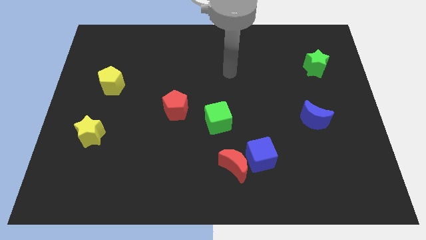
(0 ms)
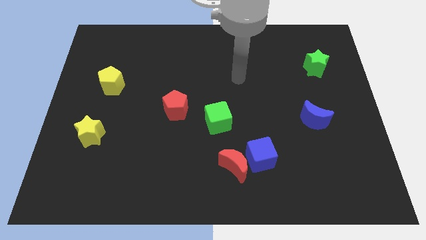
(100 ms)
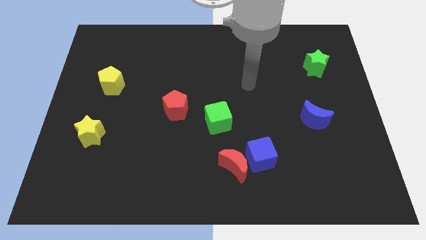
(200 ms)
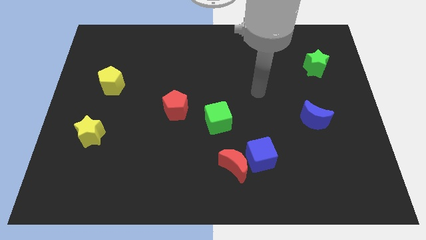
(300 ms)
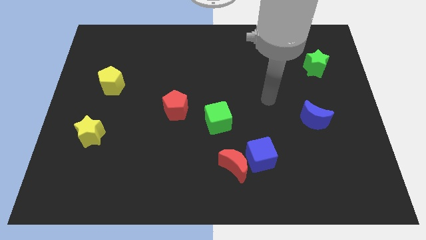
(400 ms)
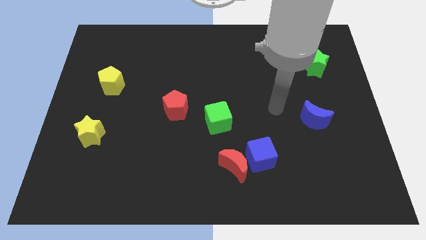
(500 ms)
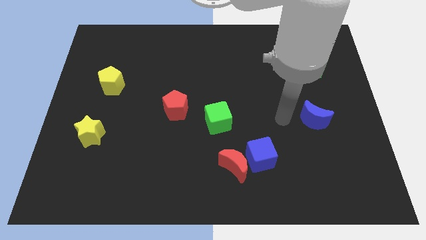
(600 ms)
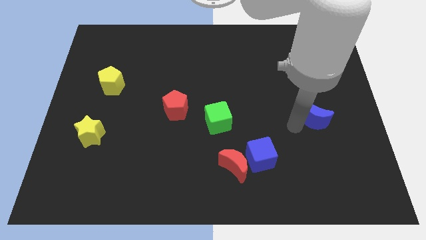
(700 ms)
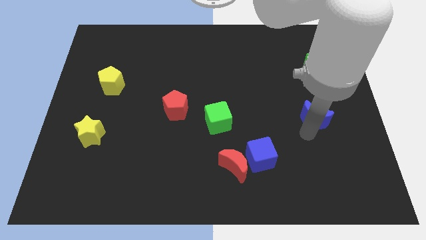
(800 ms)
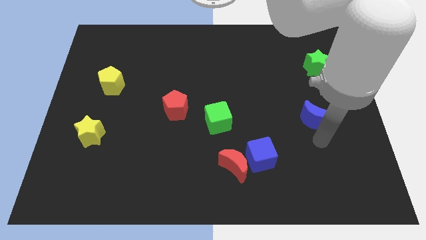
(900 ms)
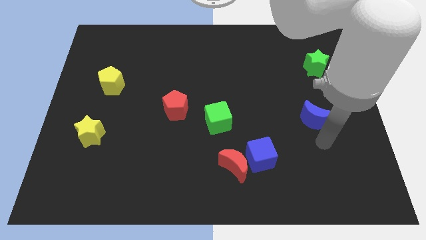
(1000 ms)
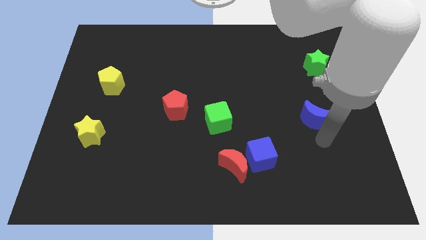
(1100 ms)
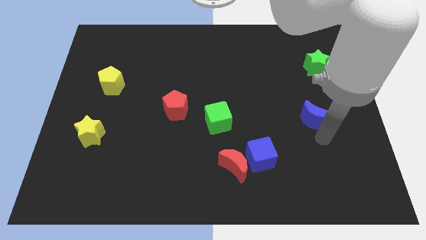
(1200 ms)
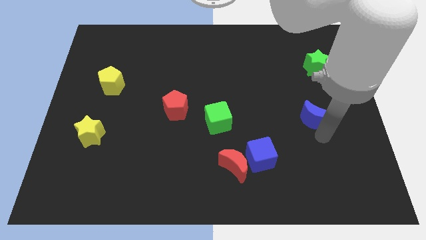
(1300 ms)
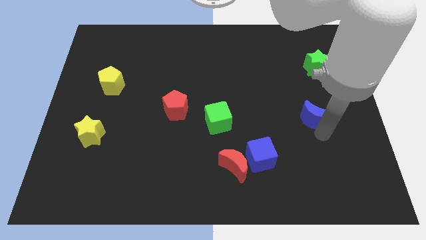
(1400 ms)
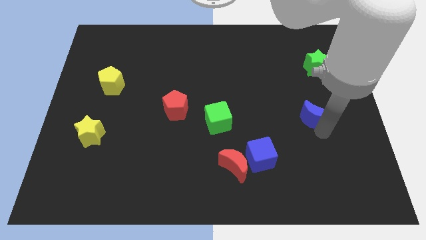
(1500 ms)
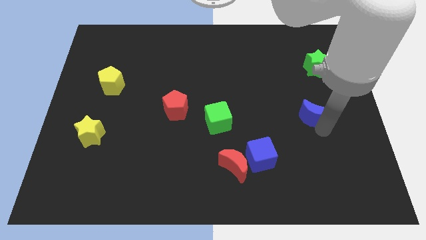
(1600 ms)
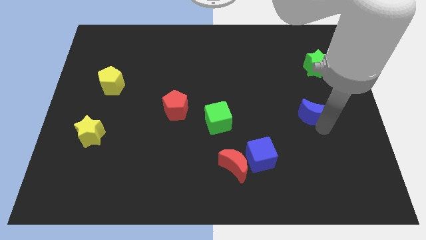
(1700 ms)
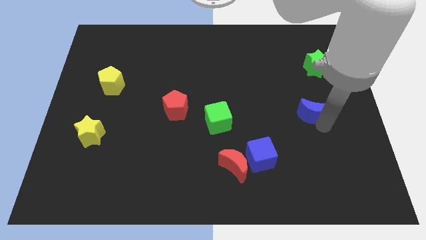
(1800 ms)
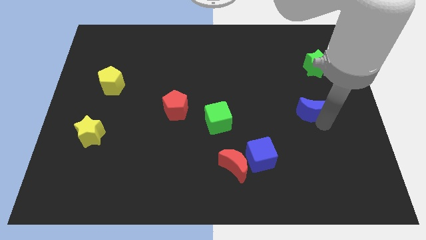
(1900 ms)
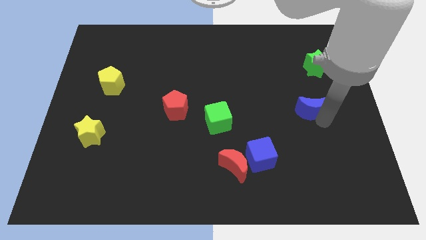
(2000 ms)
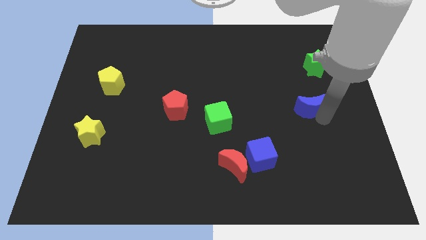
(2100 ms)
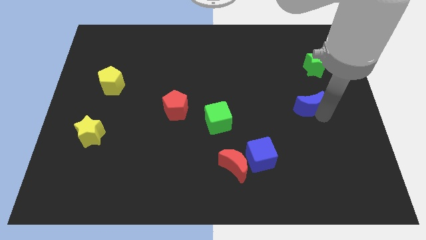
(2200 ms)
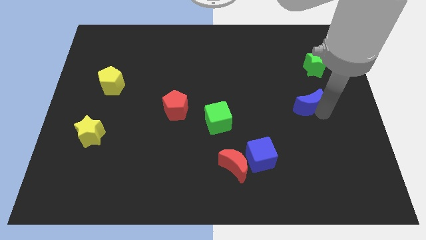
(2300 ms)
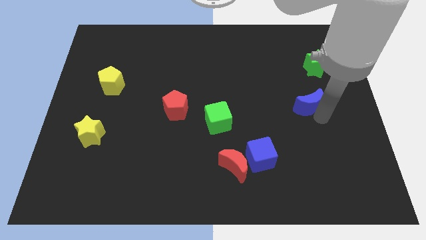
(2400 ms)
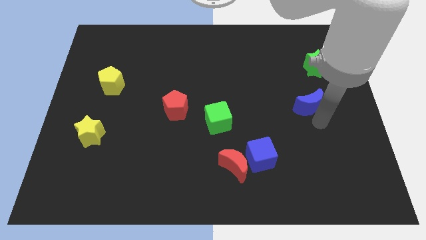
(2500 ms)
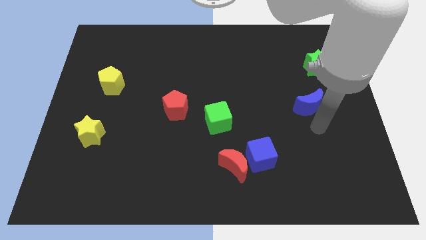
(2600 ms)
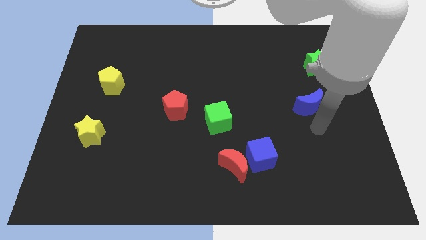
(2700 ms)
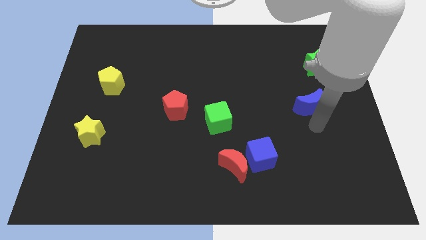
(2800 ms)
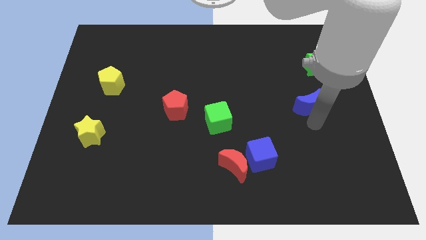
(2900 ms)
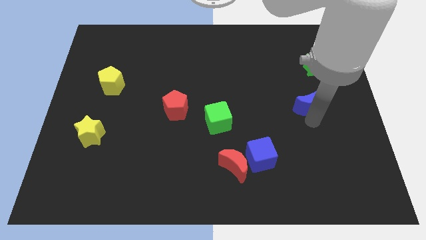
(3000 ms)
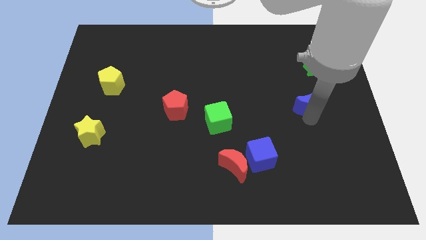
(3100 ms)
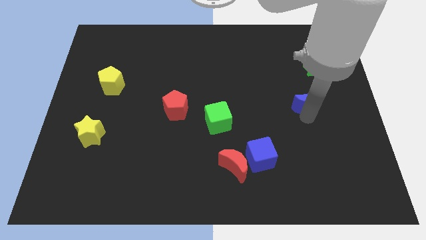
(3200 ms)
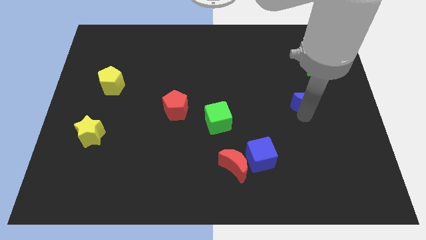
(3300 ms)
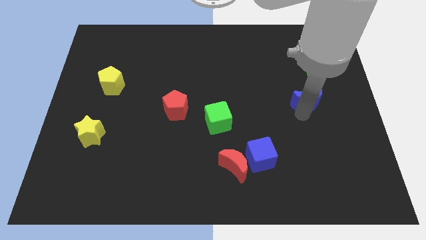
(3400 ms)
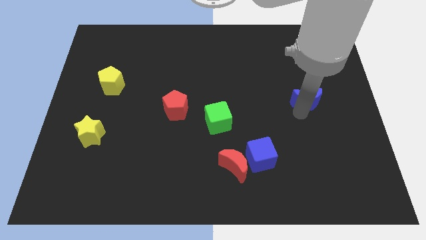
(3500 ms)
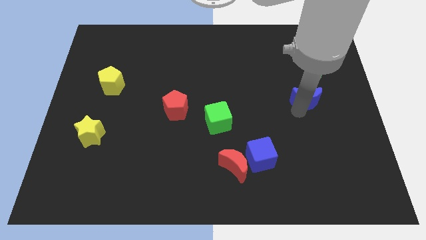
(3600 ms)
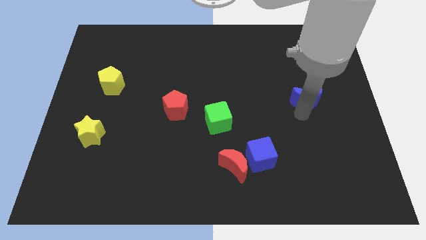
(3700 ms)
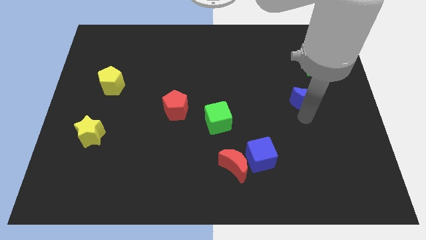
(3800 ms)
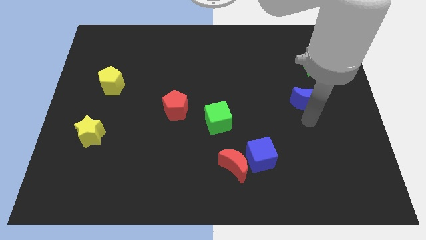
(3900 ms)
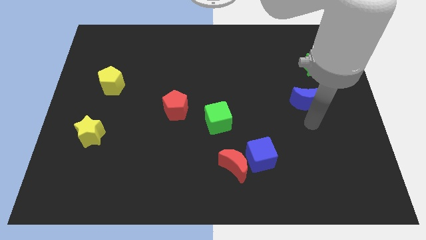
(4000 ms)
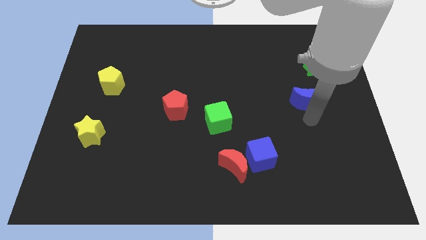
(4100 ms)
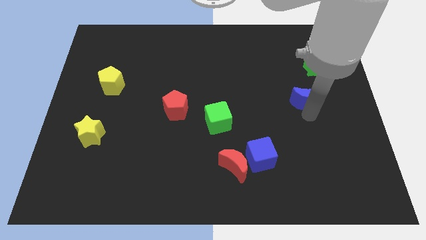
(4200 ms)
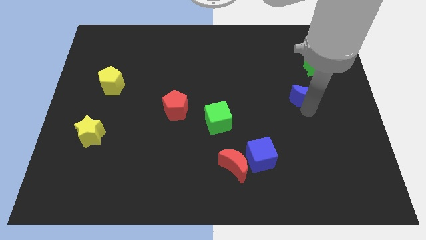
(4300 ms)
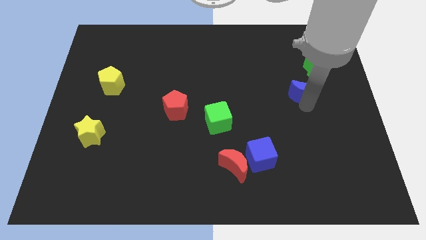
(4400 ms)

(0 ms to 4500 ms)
slide the blue moon a little upwards

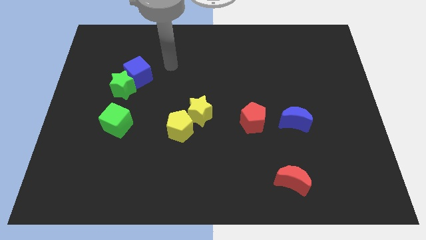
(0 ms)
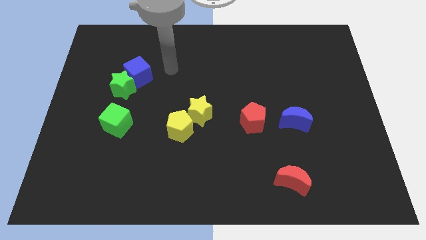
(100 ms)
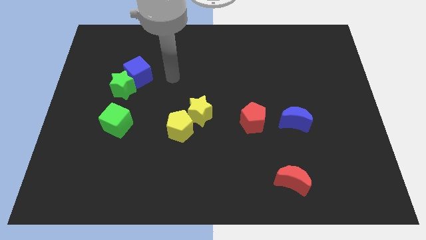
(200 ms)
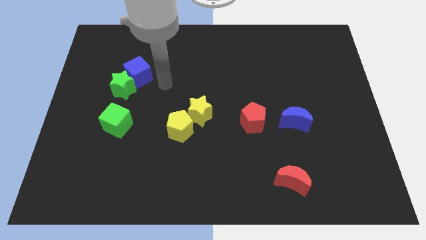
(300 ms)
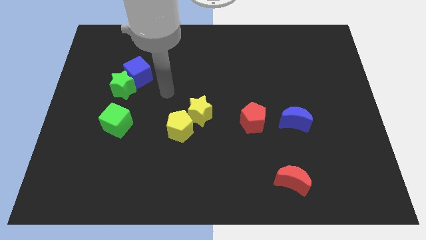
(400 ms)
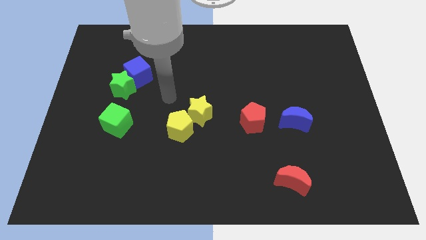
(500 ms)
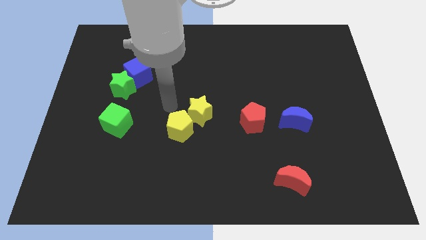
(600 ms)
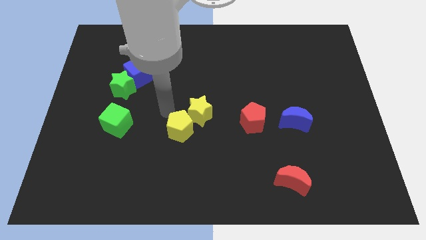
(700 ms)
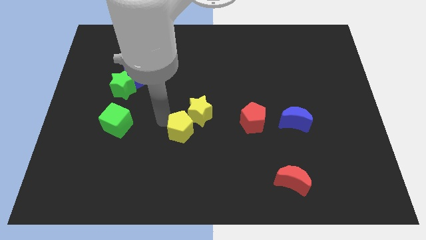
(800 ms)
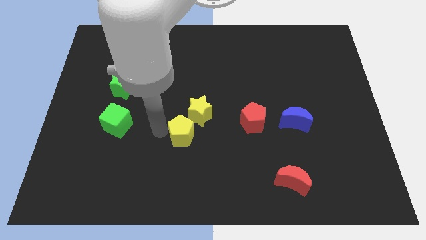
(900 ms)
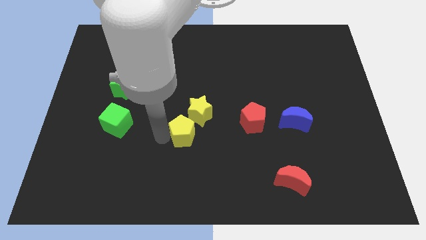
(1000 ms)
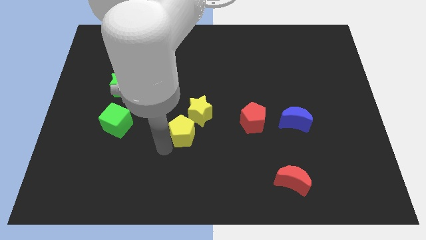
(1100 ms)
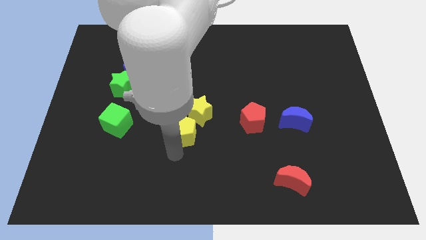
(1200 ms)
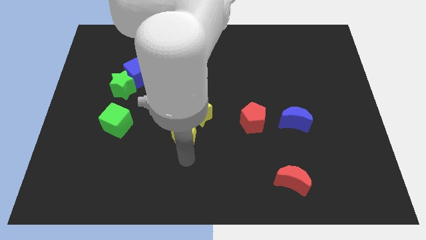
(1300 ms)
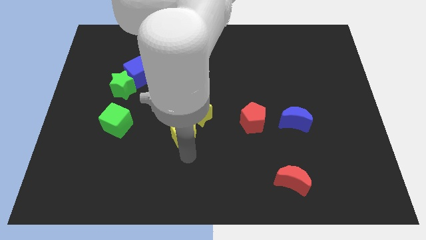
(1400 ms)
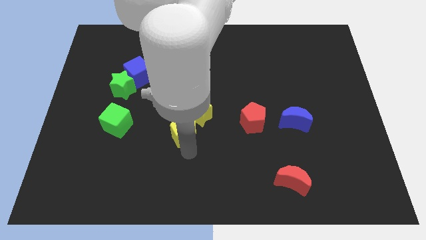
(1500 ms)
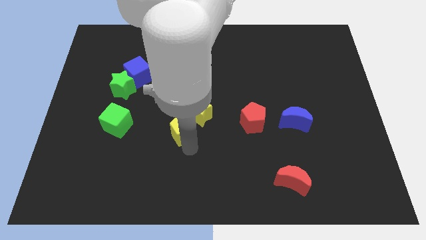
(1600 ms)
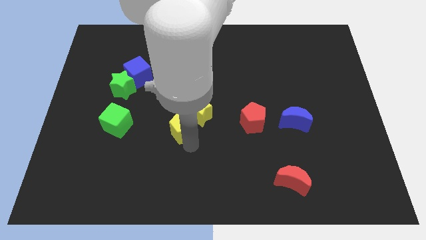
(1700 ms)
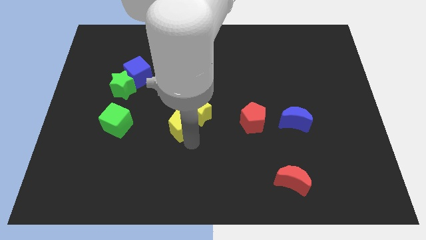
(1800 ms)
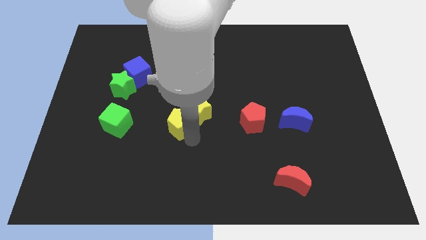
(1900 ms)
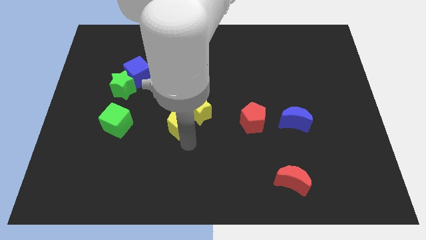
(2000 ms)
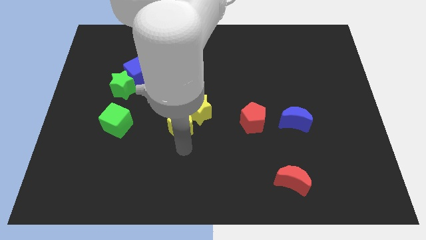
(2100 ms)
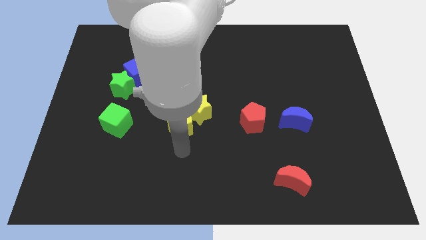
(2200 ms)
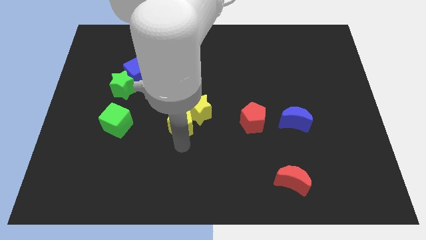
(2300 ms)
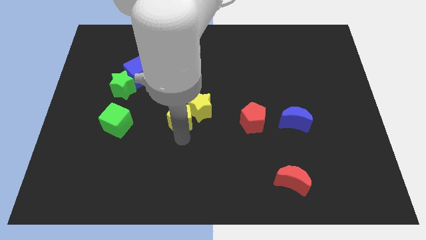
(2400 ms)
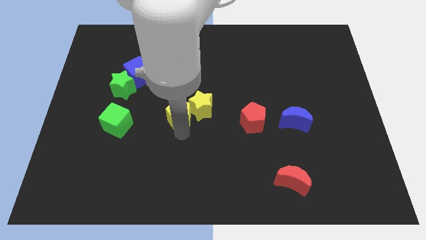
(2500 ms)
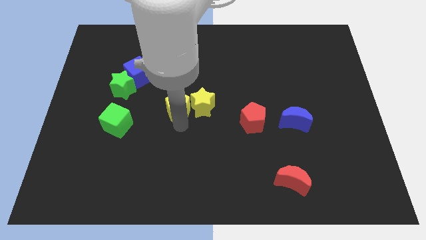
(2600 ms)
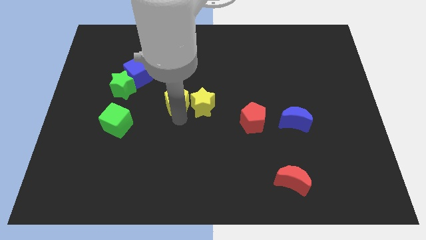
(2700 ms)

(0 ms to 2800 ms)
slightly slide the yellow pentagon upwards

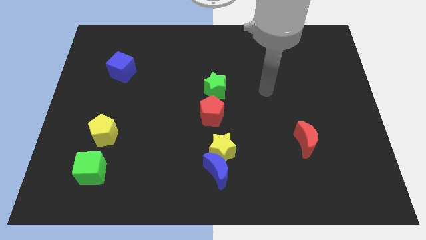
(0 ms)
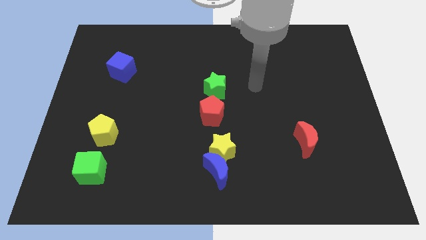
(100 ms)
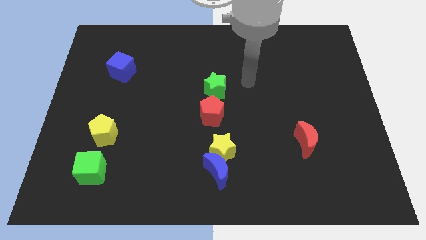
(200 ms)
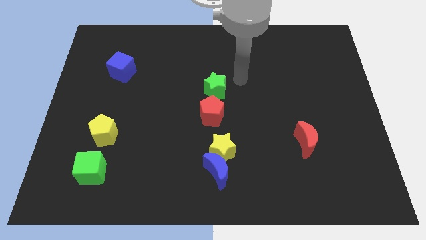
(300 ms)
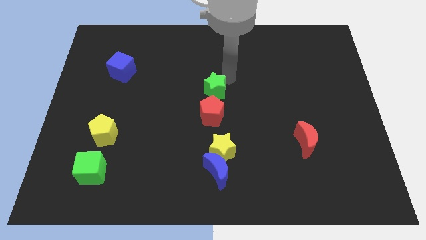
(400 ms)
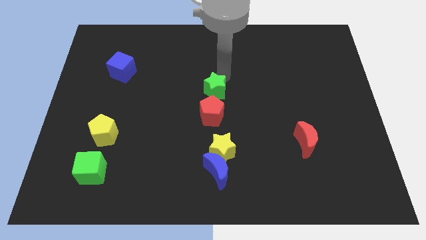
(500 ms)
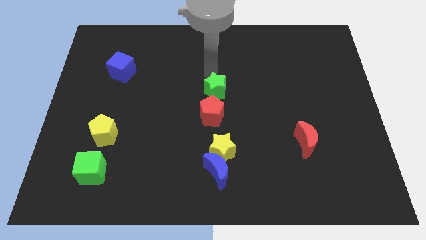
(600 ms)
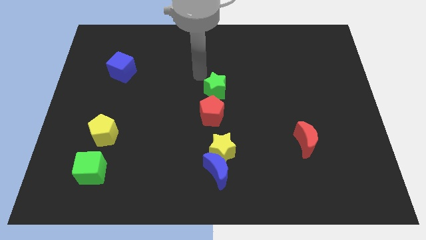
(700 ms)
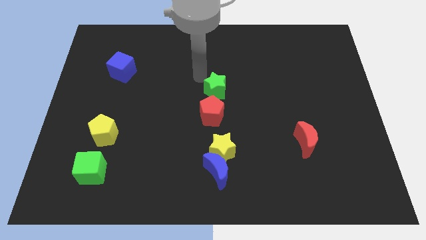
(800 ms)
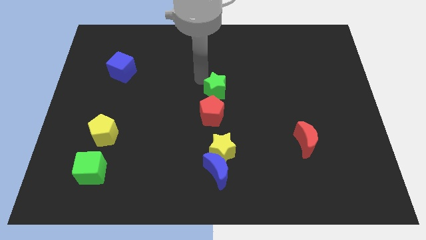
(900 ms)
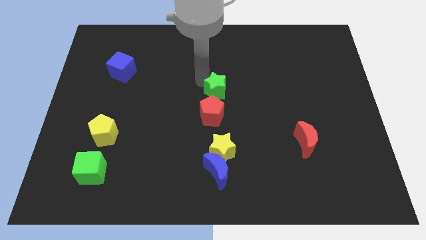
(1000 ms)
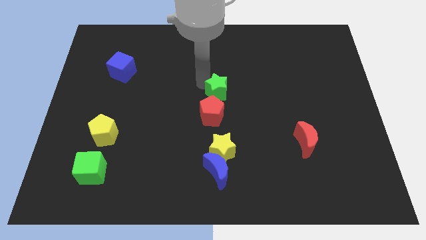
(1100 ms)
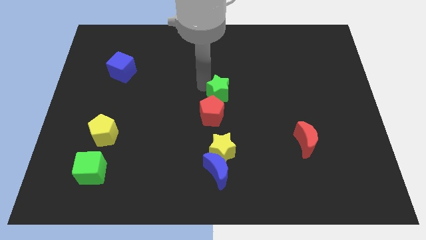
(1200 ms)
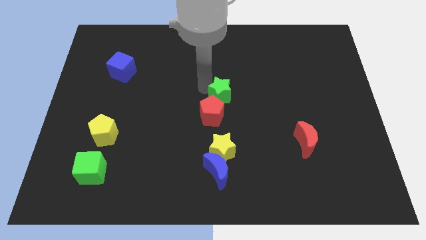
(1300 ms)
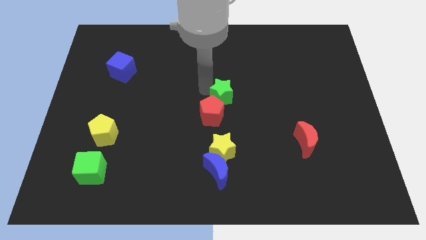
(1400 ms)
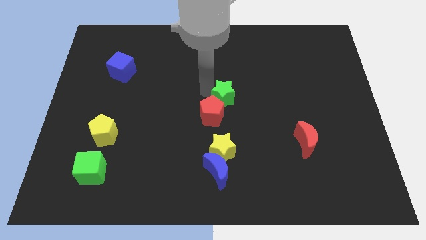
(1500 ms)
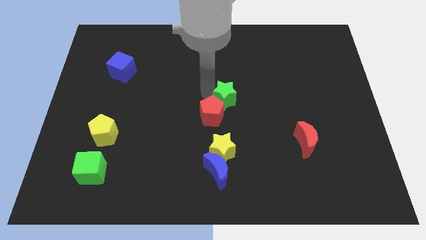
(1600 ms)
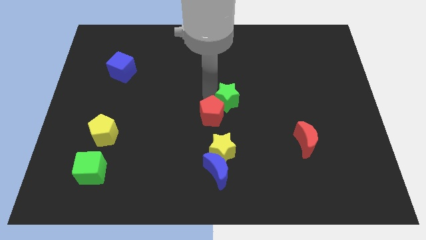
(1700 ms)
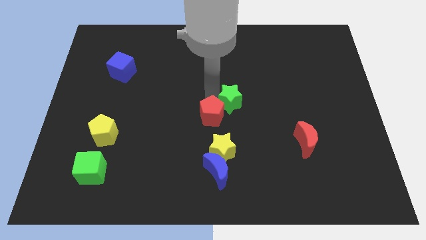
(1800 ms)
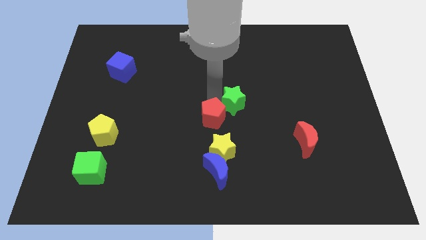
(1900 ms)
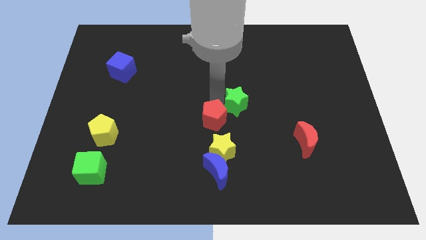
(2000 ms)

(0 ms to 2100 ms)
move the green star a little diagonally downwards and to the right
